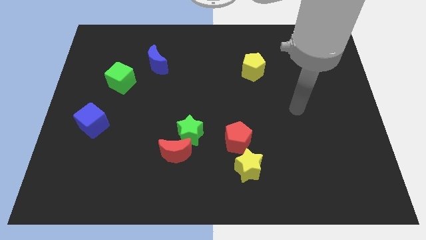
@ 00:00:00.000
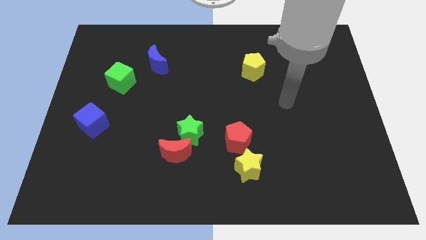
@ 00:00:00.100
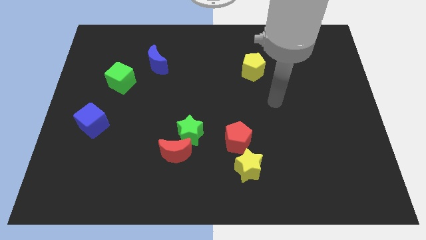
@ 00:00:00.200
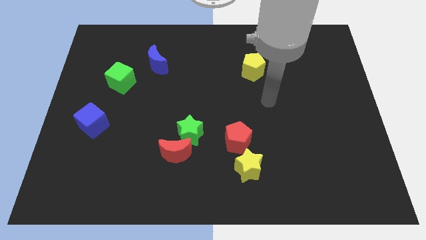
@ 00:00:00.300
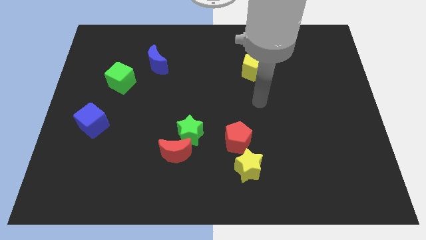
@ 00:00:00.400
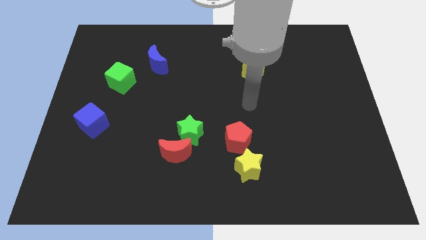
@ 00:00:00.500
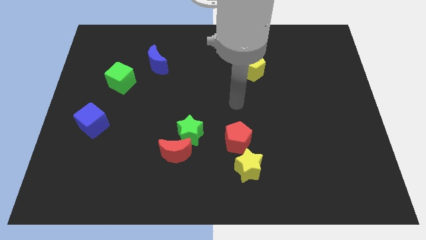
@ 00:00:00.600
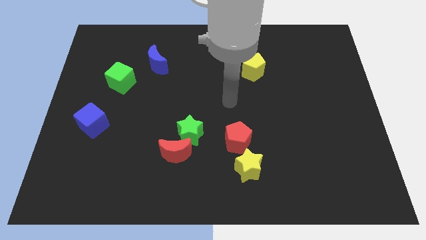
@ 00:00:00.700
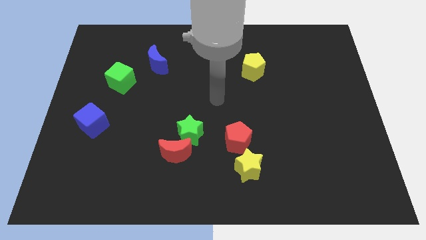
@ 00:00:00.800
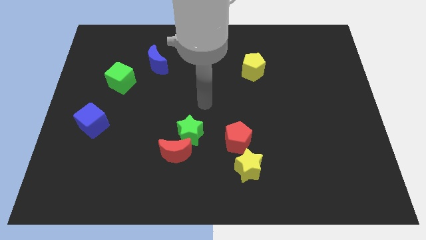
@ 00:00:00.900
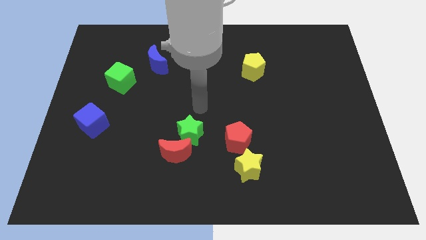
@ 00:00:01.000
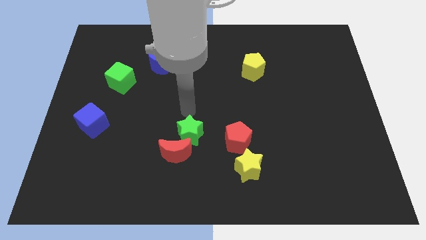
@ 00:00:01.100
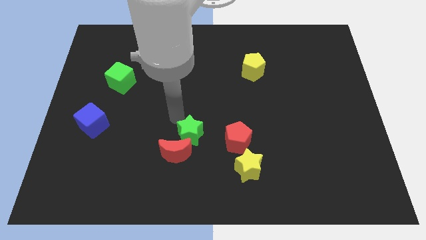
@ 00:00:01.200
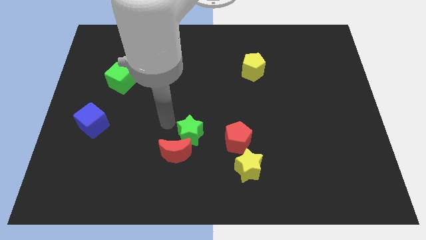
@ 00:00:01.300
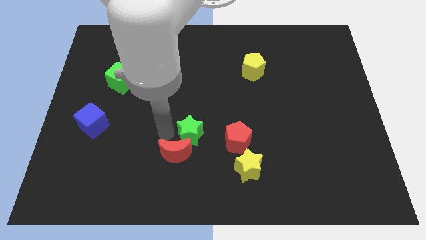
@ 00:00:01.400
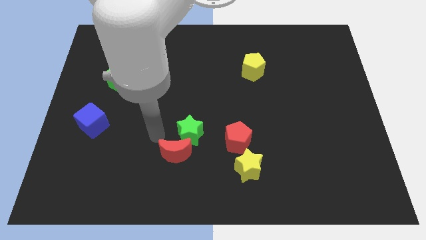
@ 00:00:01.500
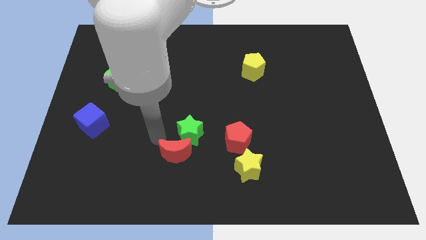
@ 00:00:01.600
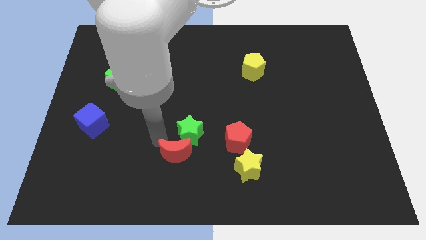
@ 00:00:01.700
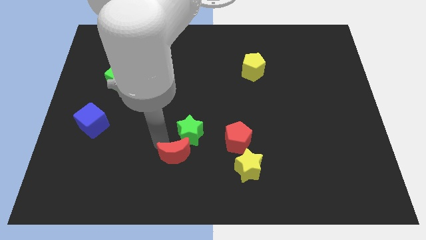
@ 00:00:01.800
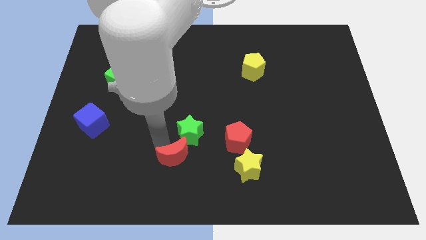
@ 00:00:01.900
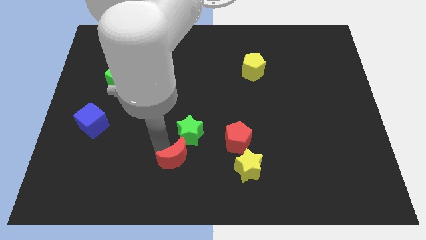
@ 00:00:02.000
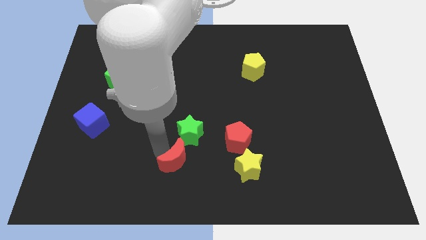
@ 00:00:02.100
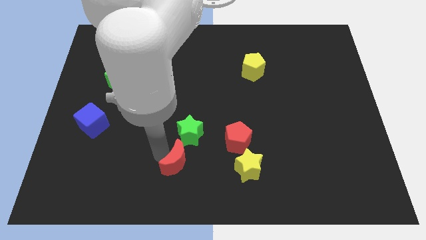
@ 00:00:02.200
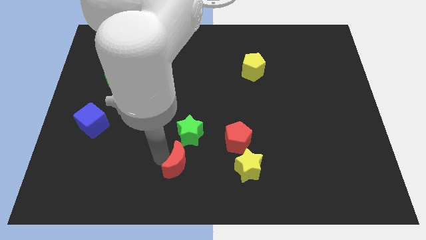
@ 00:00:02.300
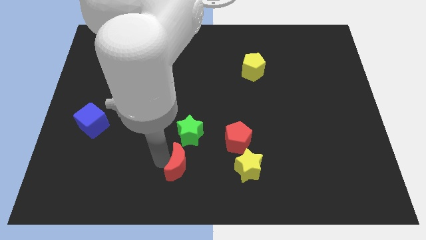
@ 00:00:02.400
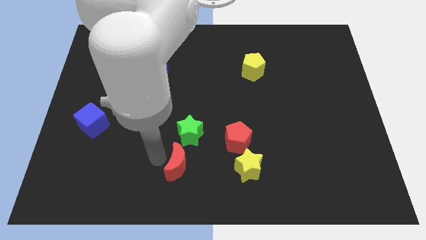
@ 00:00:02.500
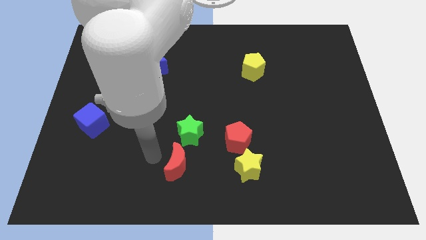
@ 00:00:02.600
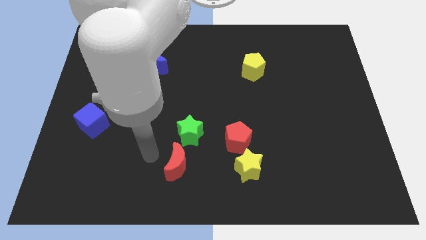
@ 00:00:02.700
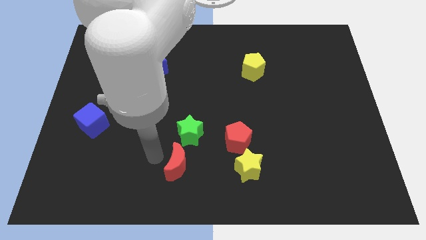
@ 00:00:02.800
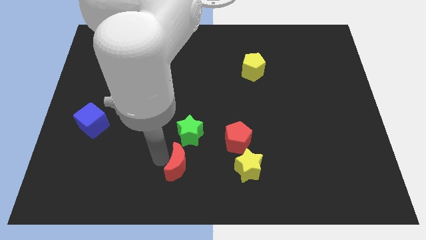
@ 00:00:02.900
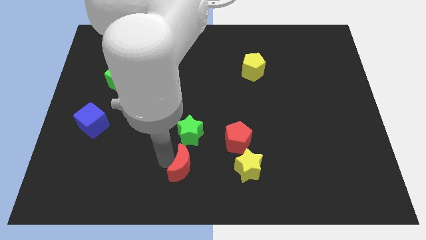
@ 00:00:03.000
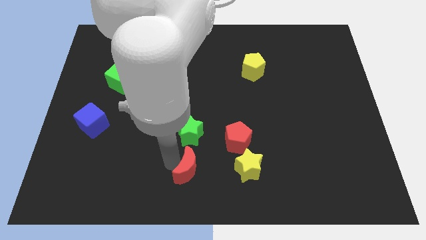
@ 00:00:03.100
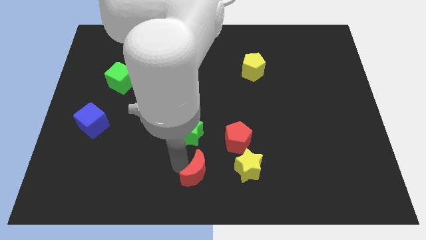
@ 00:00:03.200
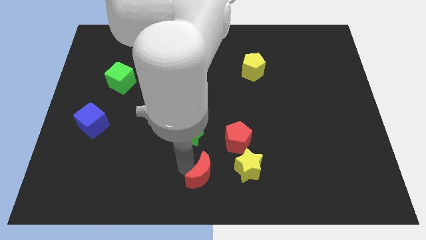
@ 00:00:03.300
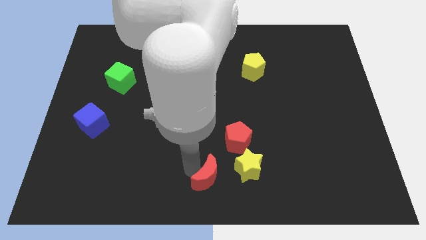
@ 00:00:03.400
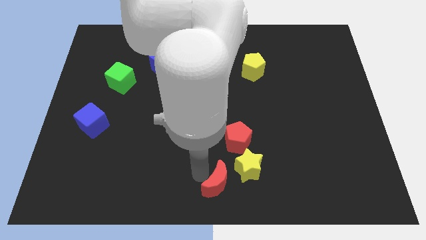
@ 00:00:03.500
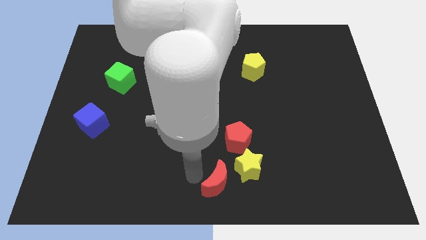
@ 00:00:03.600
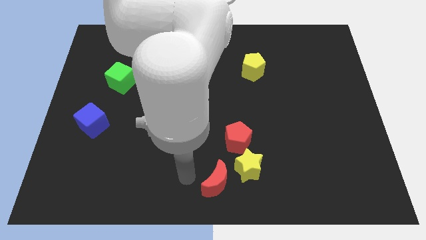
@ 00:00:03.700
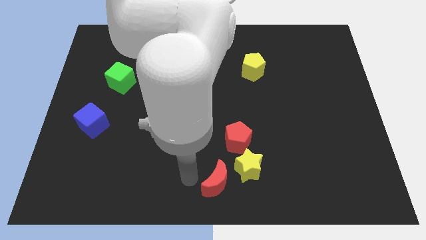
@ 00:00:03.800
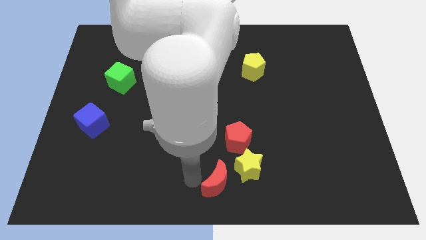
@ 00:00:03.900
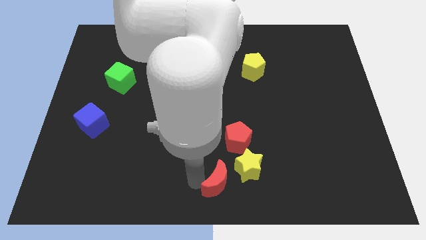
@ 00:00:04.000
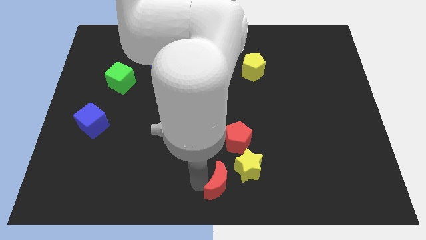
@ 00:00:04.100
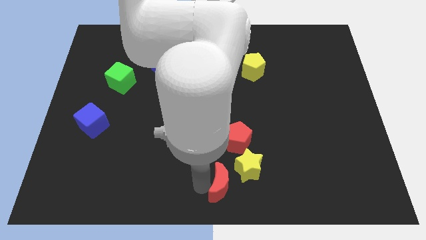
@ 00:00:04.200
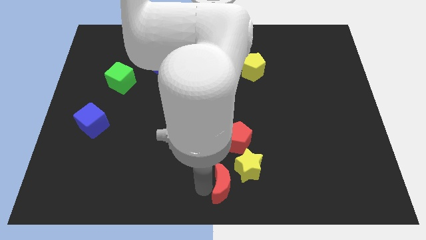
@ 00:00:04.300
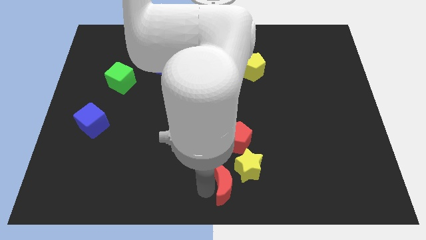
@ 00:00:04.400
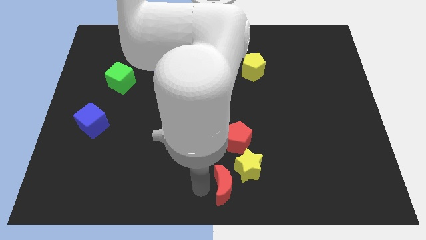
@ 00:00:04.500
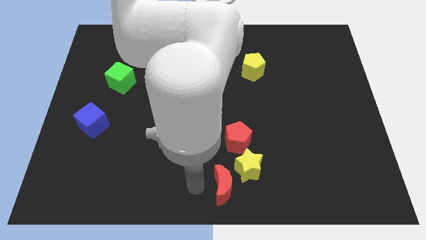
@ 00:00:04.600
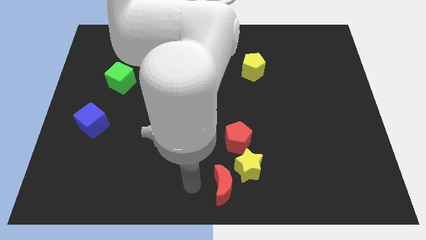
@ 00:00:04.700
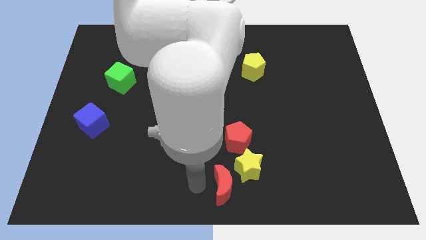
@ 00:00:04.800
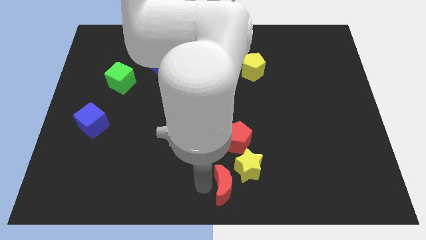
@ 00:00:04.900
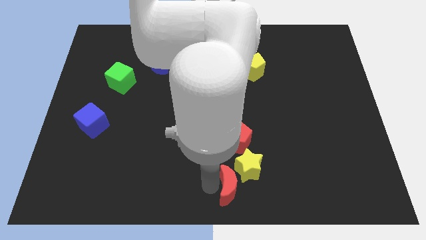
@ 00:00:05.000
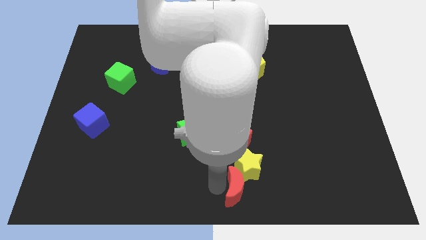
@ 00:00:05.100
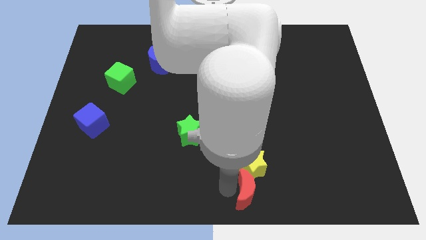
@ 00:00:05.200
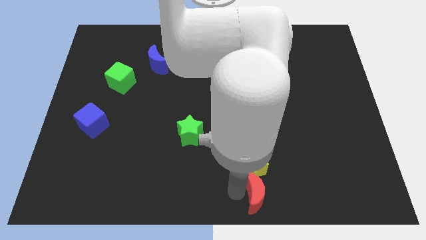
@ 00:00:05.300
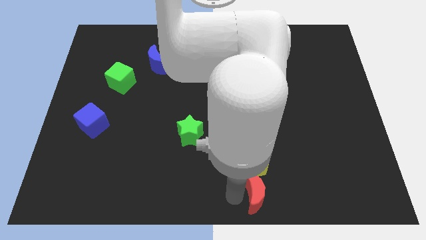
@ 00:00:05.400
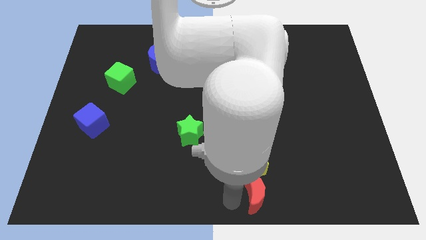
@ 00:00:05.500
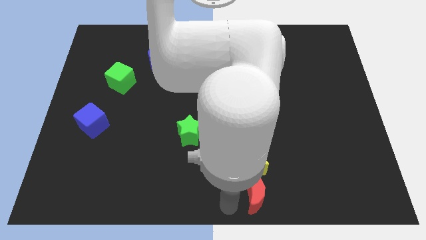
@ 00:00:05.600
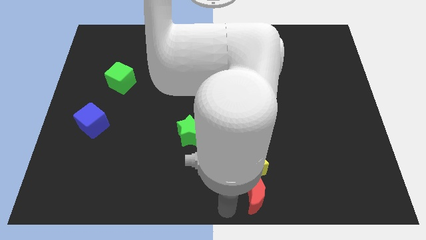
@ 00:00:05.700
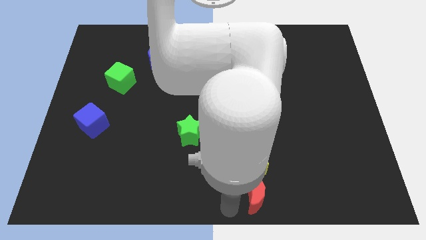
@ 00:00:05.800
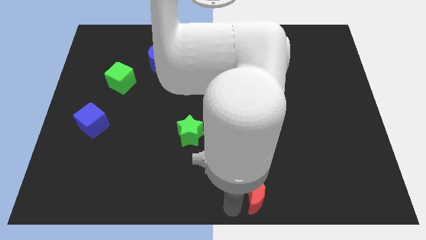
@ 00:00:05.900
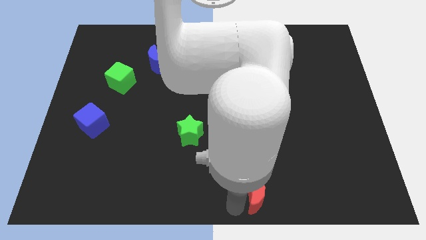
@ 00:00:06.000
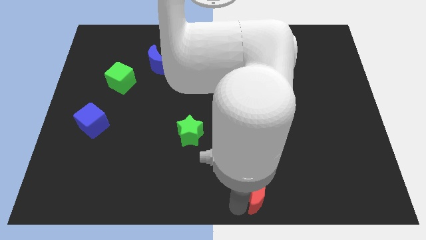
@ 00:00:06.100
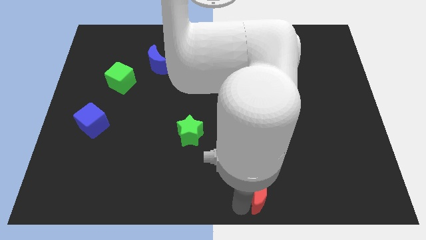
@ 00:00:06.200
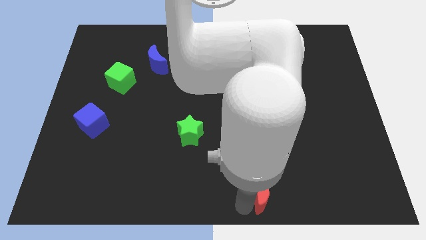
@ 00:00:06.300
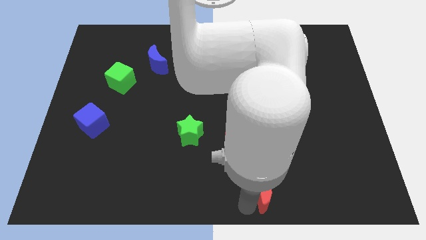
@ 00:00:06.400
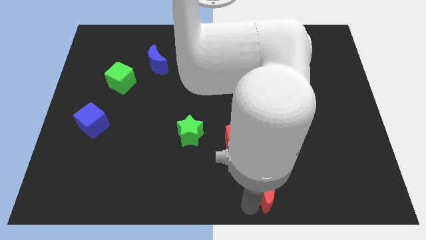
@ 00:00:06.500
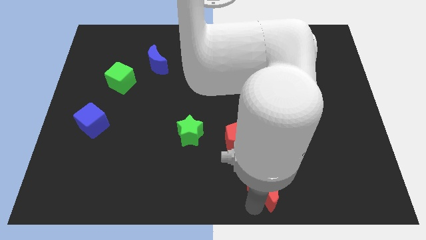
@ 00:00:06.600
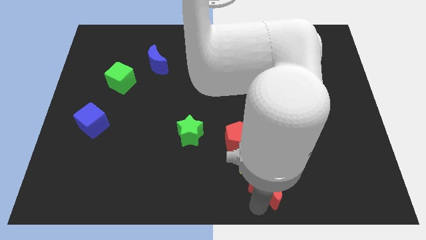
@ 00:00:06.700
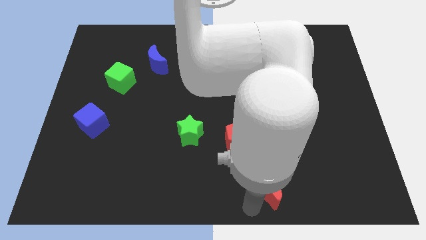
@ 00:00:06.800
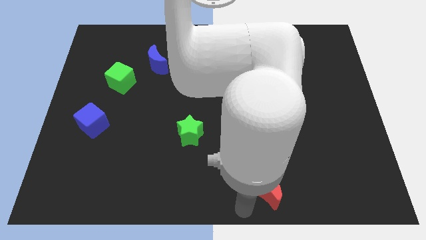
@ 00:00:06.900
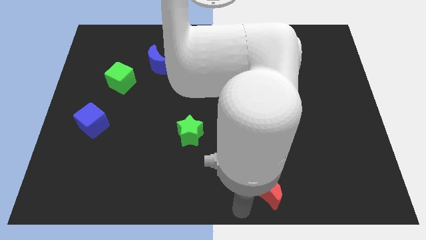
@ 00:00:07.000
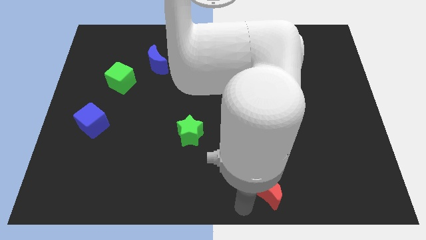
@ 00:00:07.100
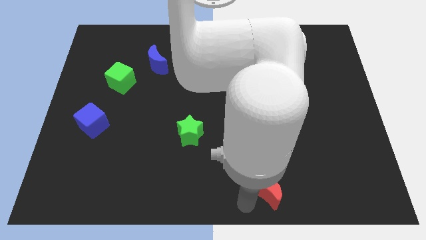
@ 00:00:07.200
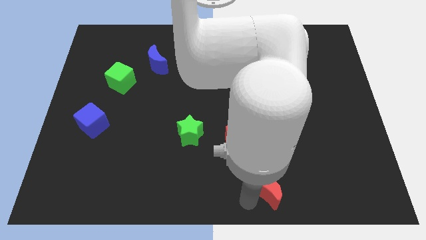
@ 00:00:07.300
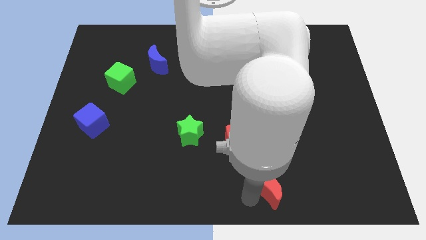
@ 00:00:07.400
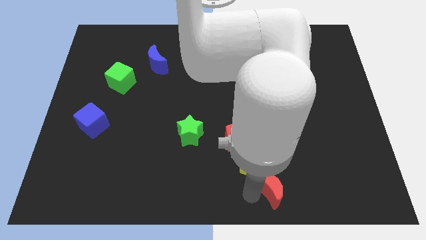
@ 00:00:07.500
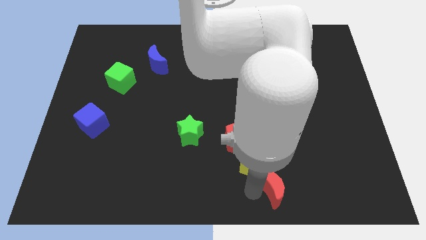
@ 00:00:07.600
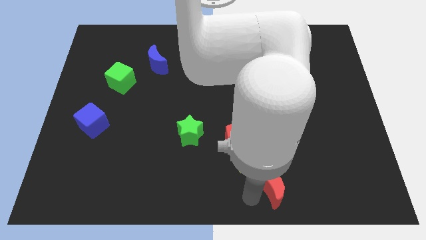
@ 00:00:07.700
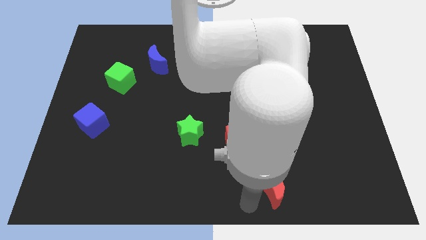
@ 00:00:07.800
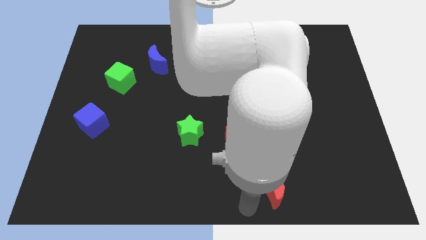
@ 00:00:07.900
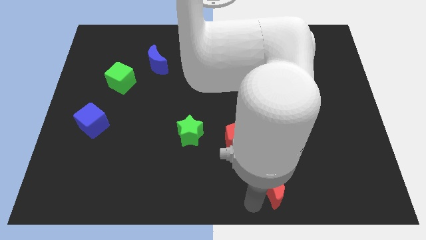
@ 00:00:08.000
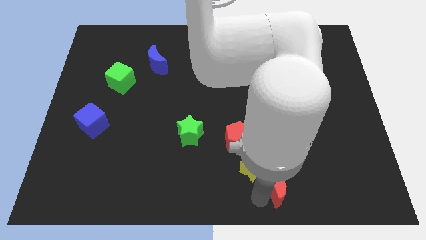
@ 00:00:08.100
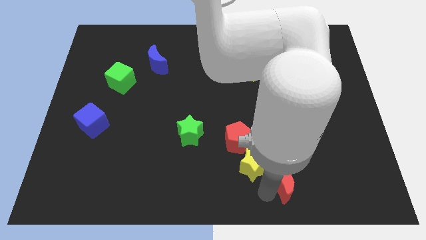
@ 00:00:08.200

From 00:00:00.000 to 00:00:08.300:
slide the red moon right
